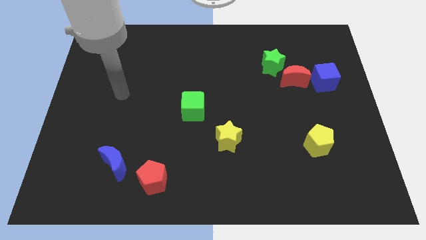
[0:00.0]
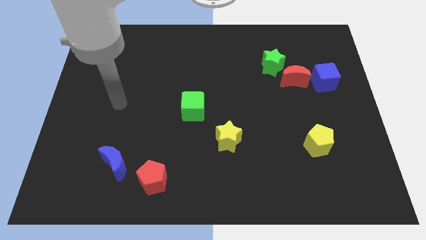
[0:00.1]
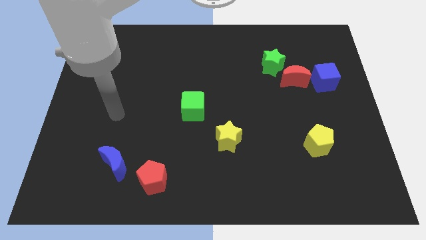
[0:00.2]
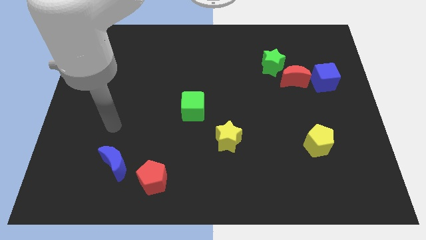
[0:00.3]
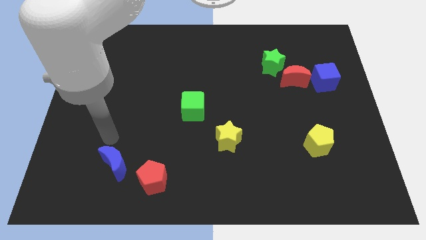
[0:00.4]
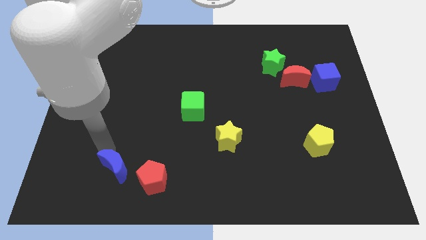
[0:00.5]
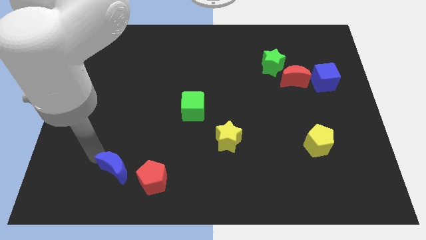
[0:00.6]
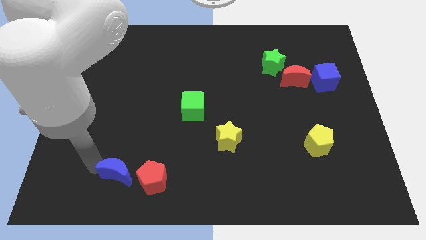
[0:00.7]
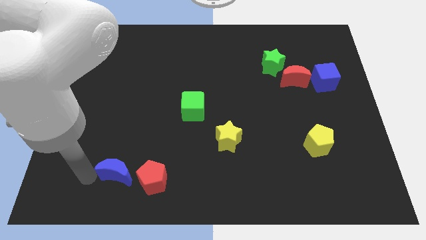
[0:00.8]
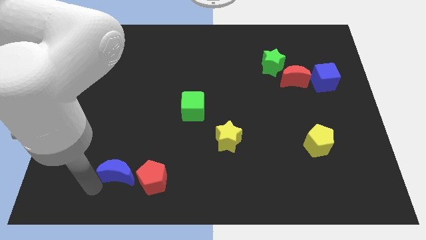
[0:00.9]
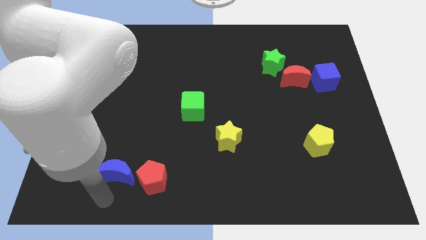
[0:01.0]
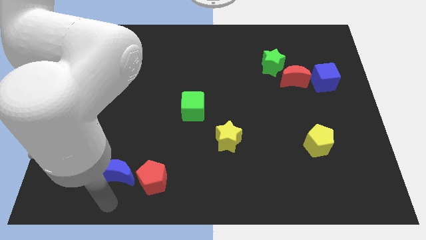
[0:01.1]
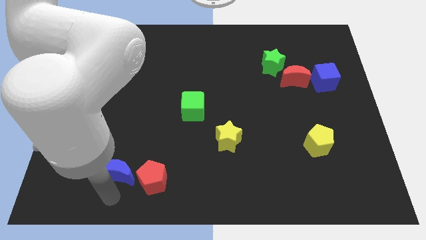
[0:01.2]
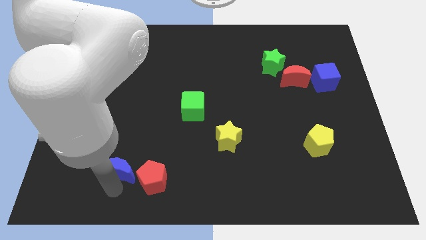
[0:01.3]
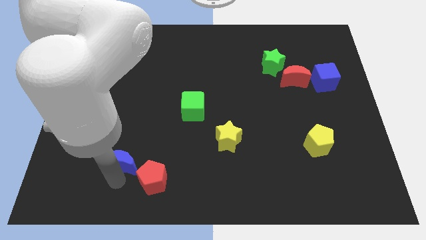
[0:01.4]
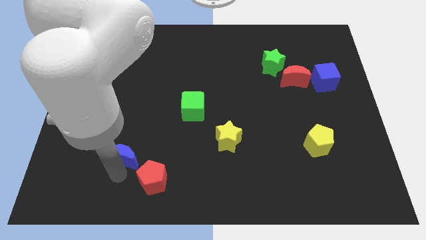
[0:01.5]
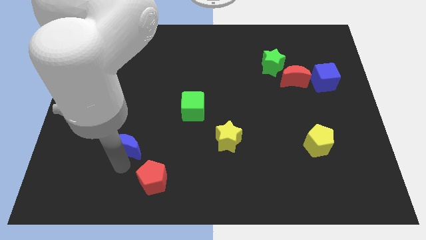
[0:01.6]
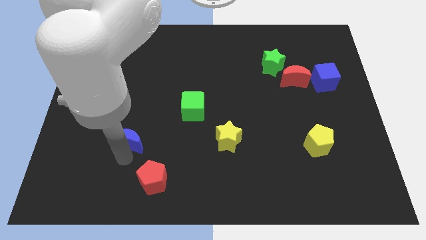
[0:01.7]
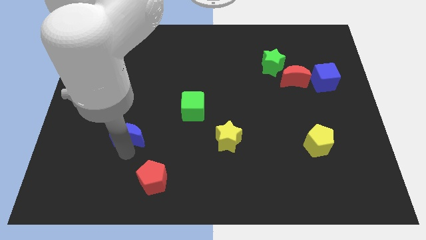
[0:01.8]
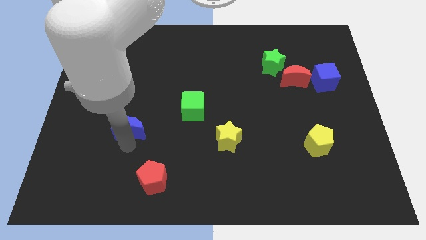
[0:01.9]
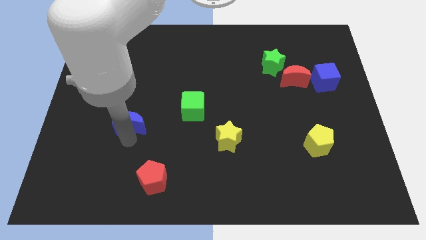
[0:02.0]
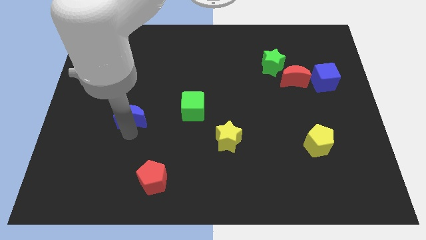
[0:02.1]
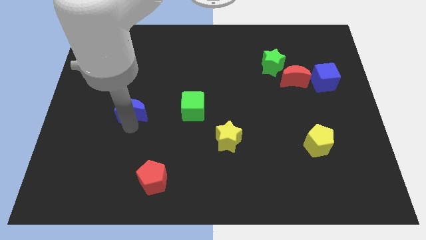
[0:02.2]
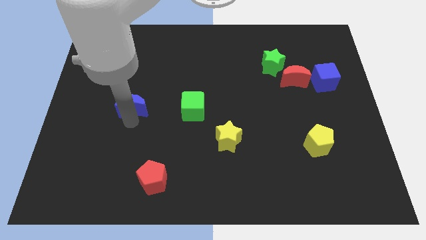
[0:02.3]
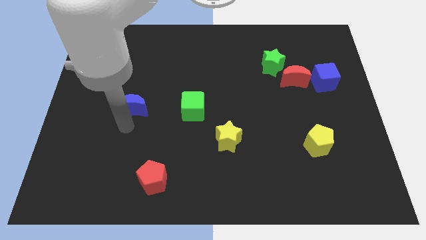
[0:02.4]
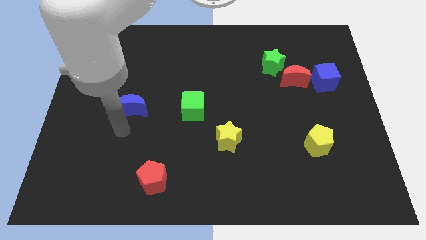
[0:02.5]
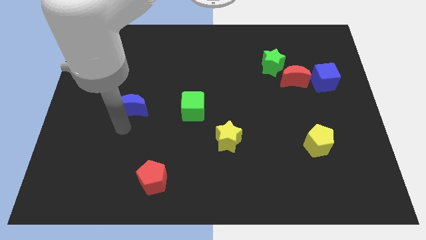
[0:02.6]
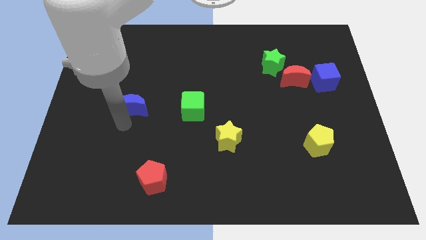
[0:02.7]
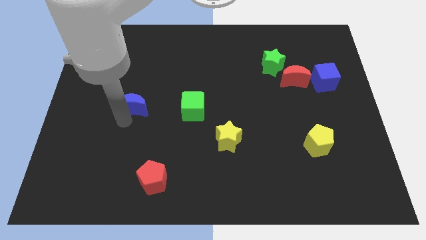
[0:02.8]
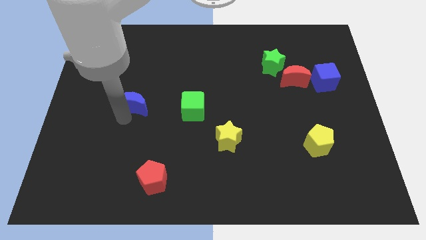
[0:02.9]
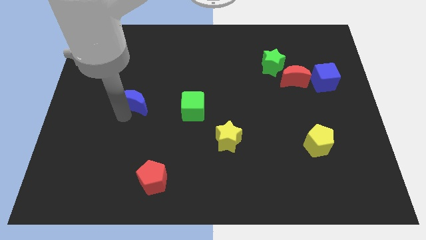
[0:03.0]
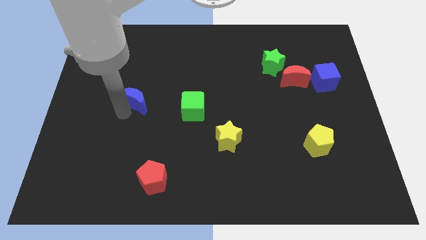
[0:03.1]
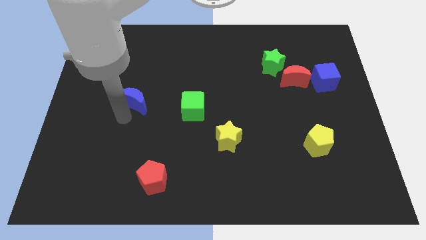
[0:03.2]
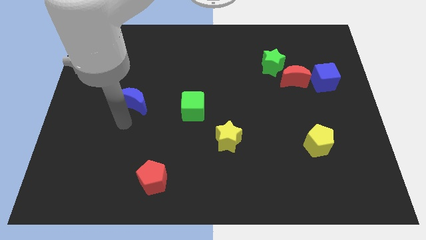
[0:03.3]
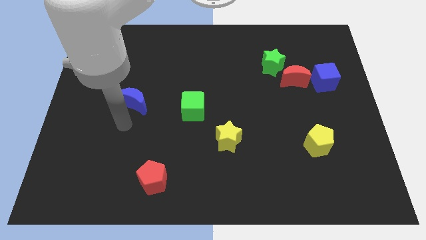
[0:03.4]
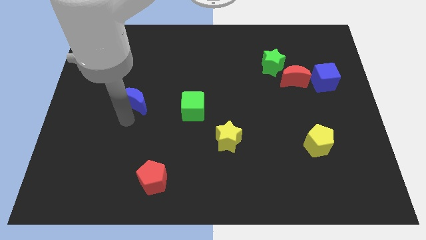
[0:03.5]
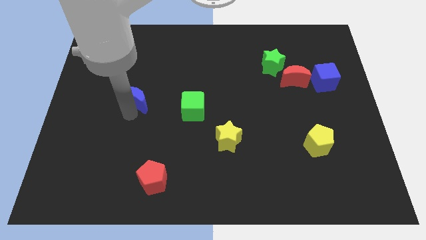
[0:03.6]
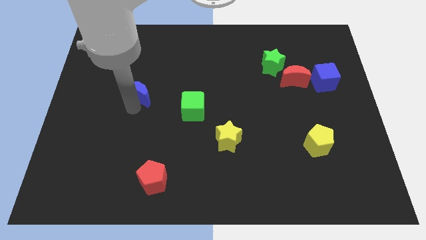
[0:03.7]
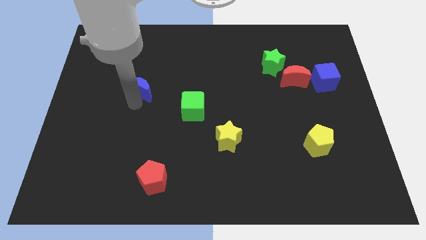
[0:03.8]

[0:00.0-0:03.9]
slide the blue moon up

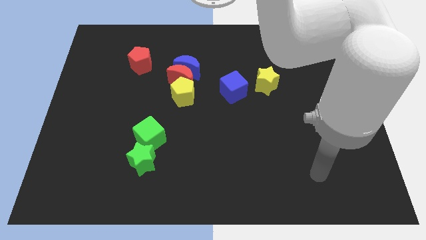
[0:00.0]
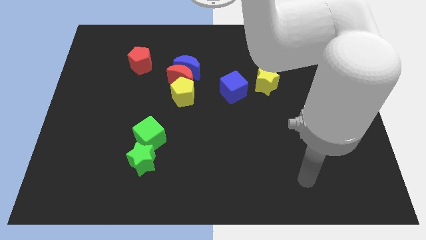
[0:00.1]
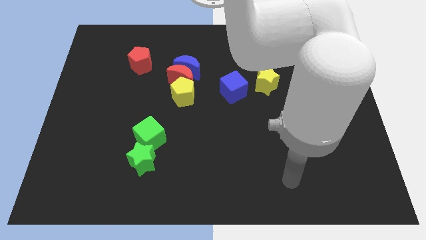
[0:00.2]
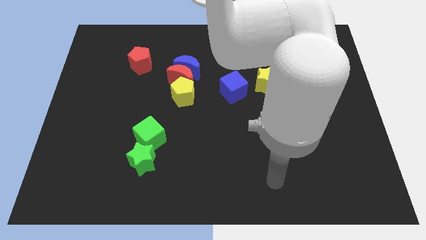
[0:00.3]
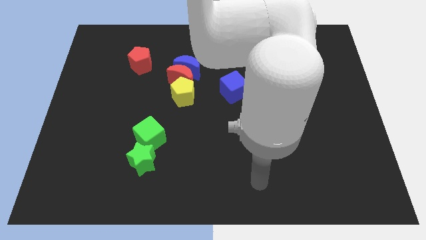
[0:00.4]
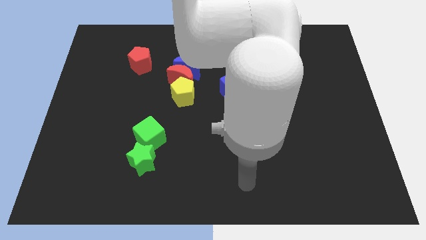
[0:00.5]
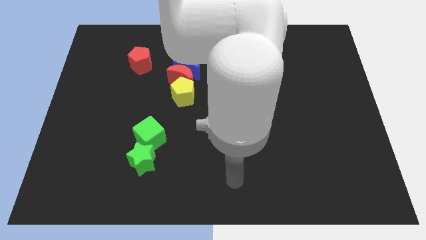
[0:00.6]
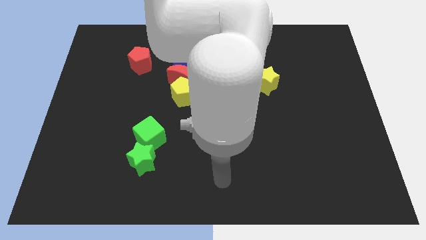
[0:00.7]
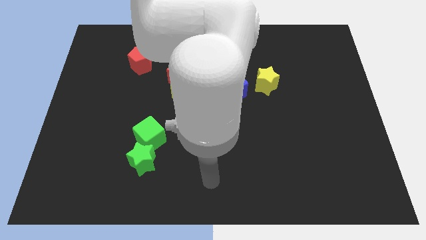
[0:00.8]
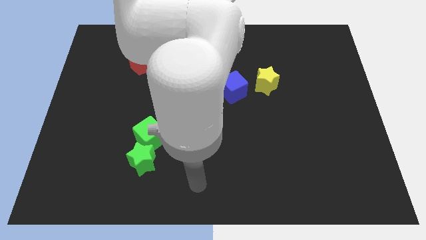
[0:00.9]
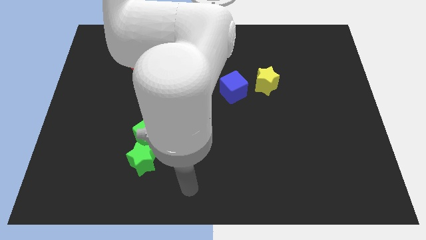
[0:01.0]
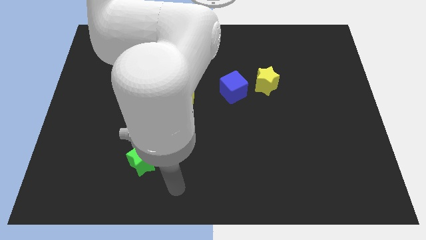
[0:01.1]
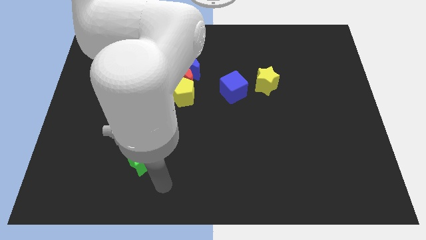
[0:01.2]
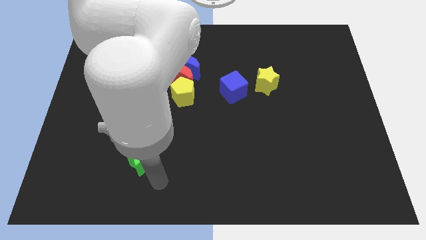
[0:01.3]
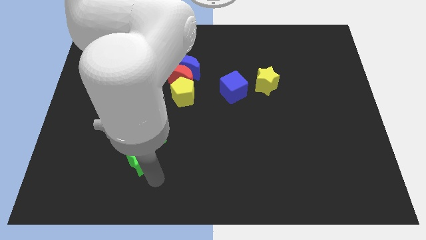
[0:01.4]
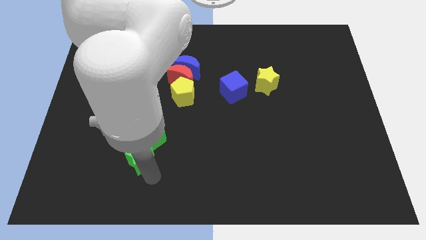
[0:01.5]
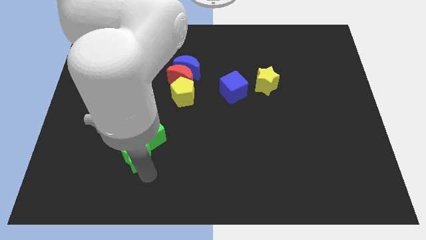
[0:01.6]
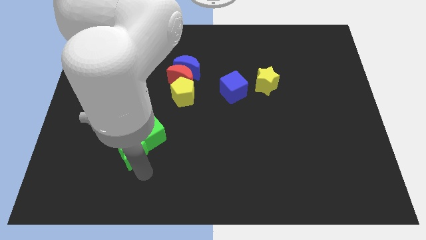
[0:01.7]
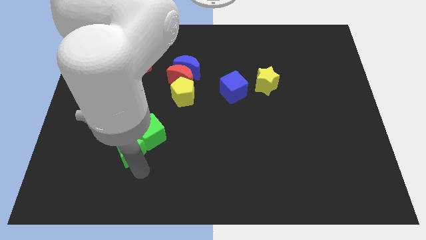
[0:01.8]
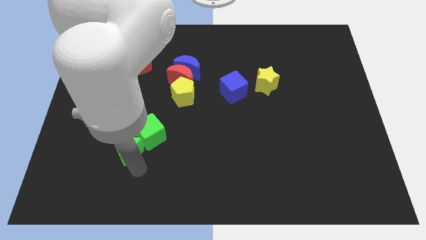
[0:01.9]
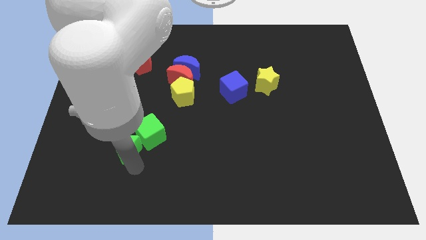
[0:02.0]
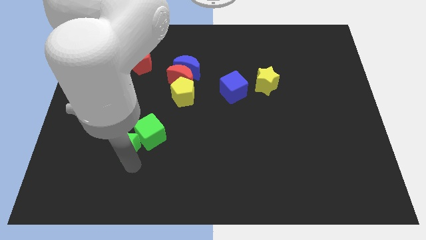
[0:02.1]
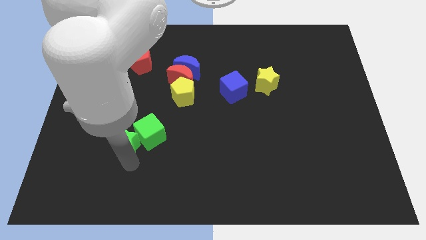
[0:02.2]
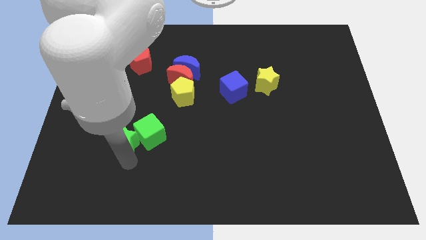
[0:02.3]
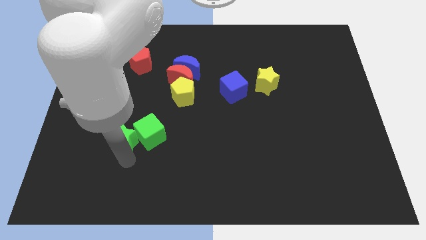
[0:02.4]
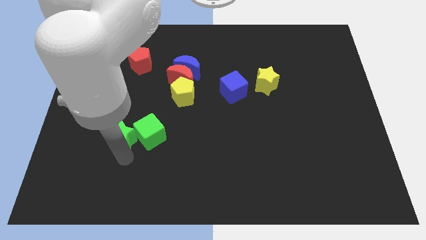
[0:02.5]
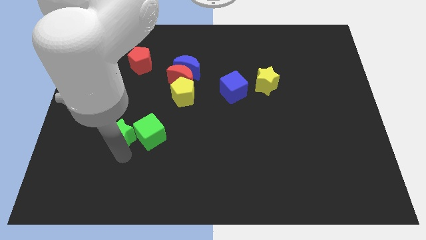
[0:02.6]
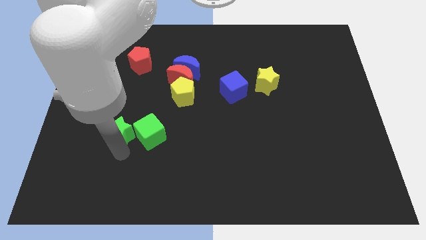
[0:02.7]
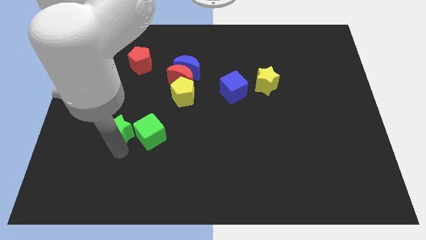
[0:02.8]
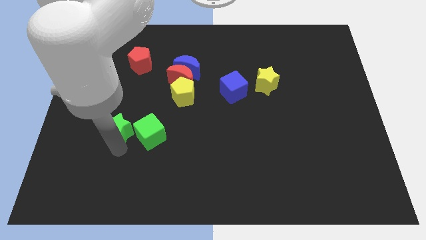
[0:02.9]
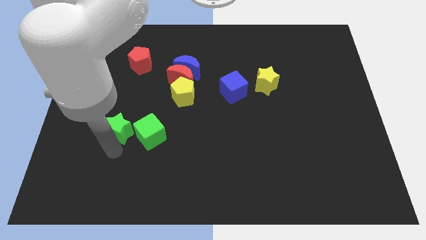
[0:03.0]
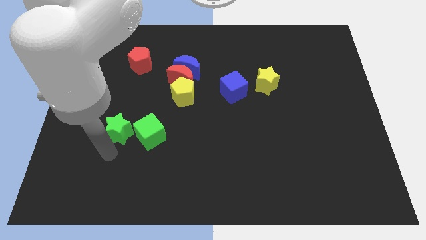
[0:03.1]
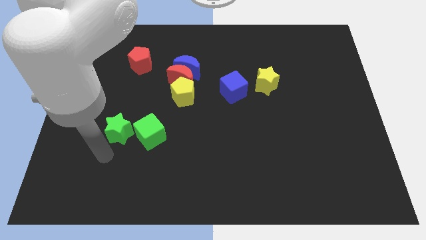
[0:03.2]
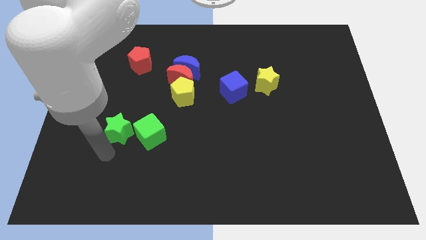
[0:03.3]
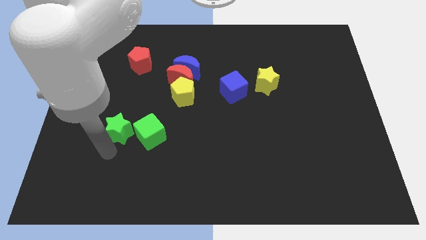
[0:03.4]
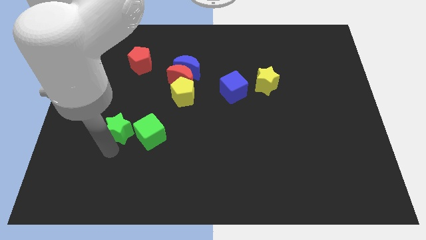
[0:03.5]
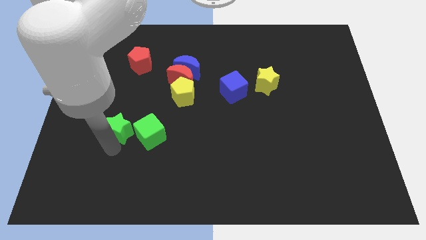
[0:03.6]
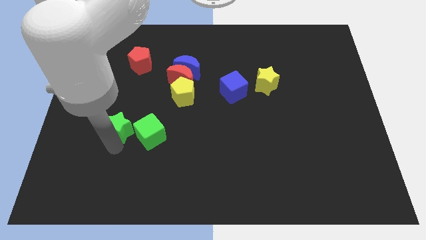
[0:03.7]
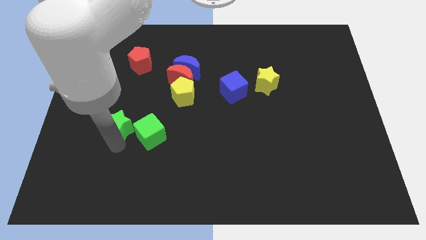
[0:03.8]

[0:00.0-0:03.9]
slide the green star up somewhat

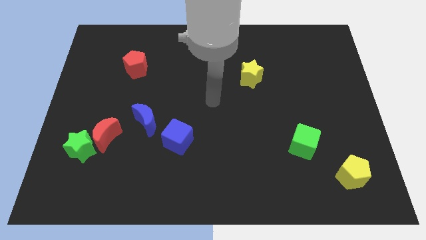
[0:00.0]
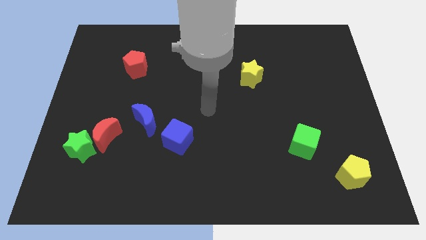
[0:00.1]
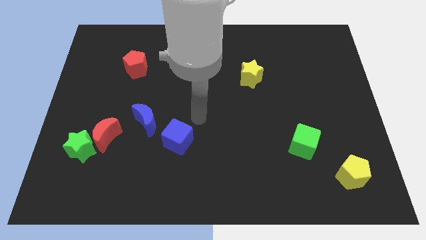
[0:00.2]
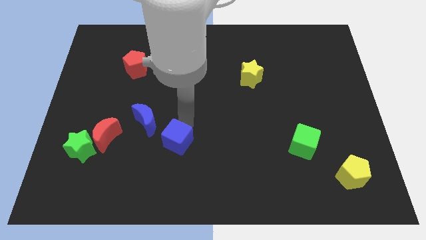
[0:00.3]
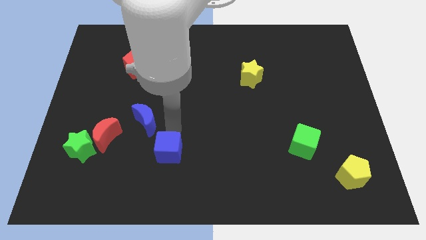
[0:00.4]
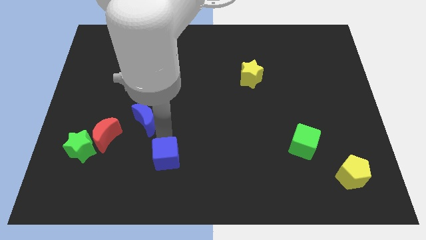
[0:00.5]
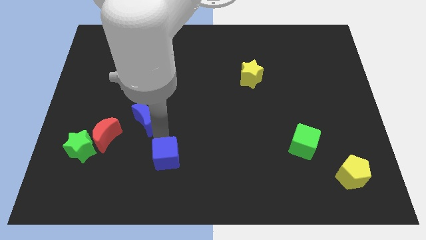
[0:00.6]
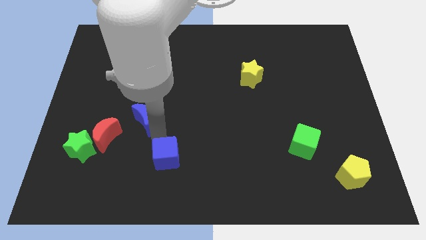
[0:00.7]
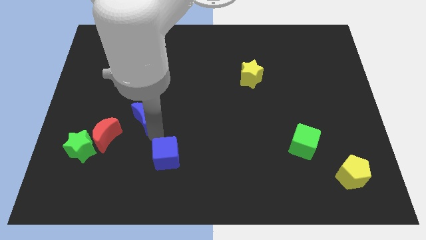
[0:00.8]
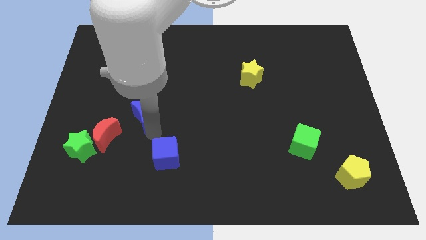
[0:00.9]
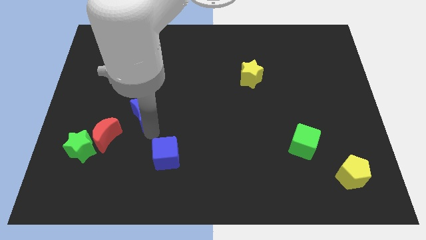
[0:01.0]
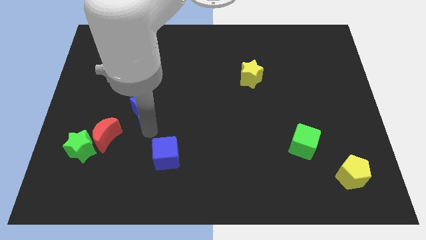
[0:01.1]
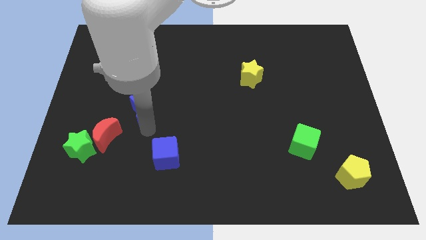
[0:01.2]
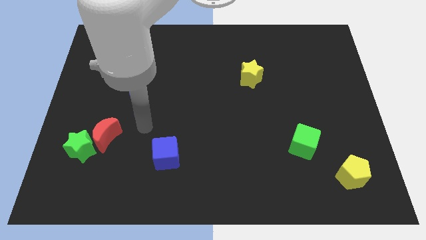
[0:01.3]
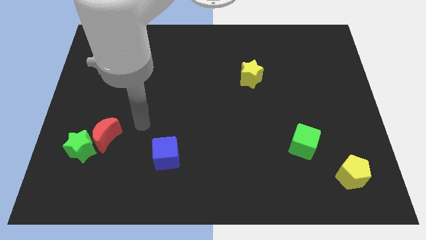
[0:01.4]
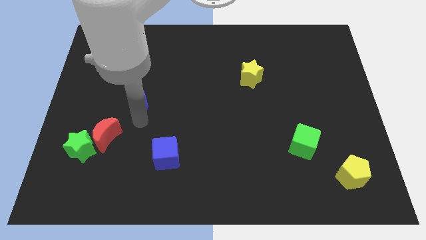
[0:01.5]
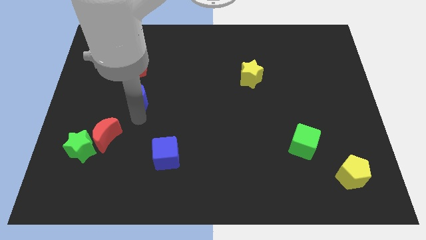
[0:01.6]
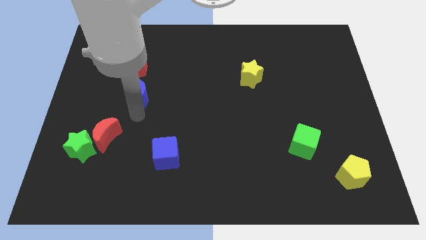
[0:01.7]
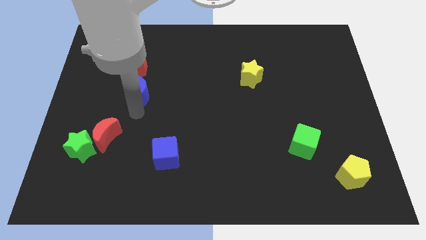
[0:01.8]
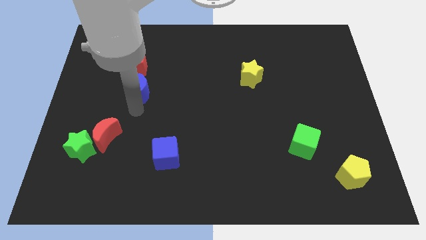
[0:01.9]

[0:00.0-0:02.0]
slide the blue moon a little diagonally up and to the left
